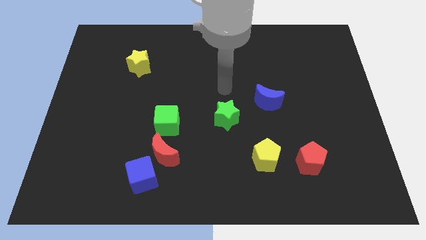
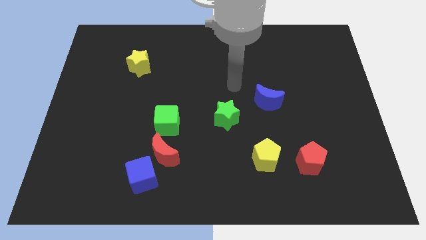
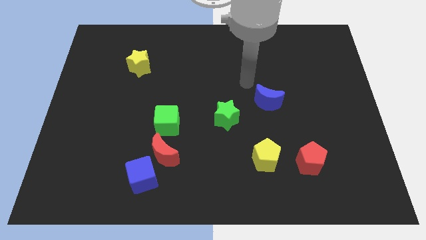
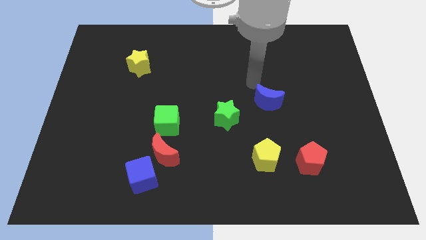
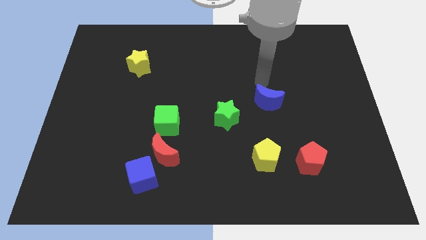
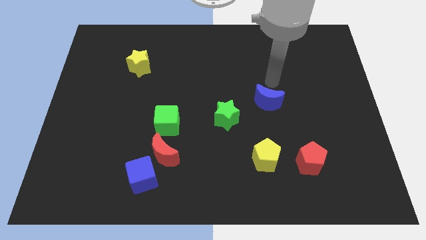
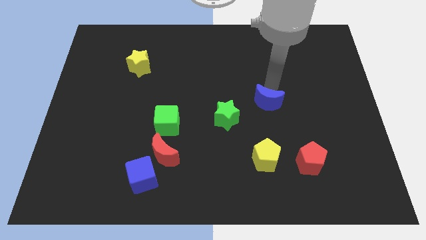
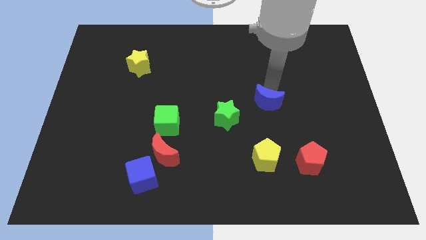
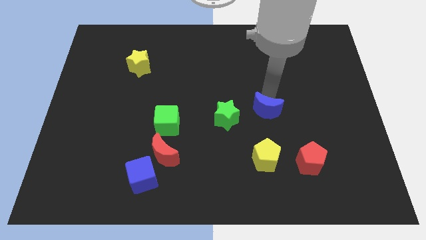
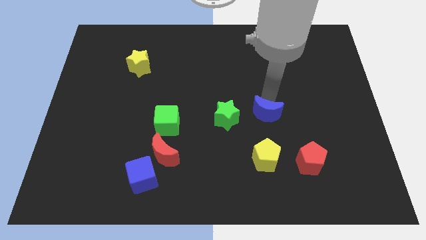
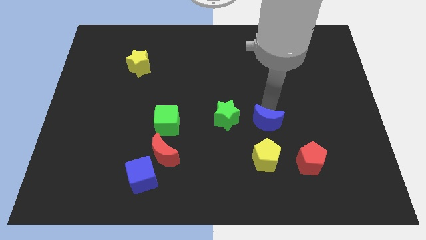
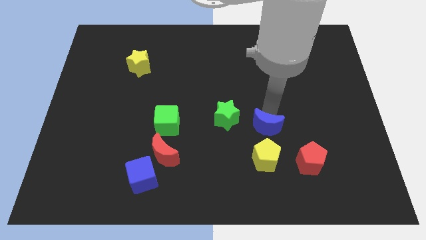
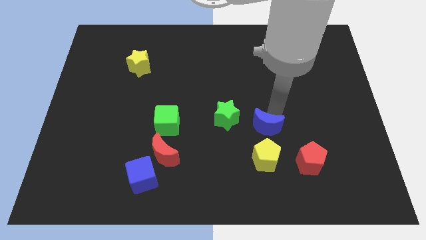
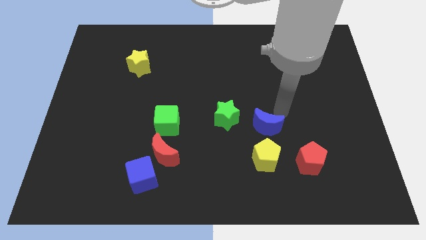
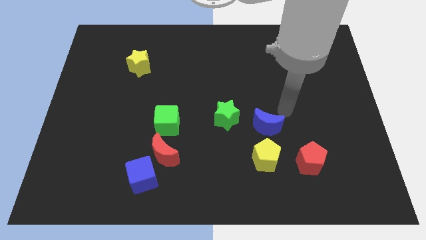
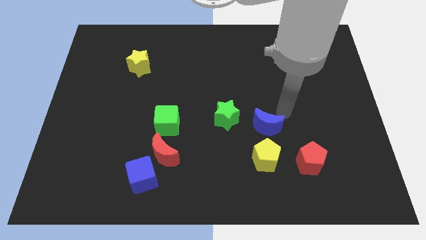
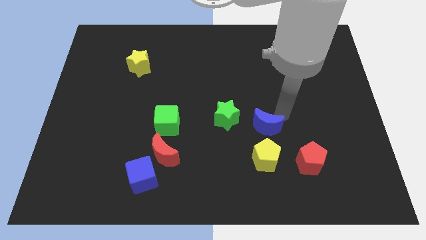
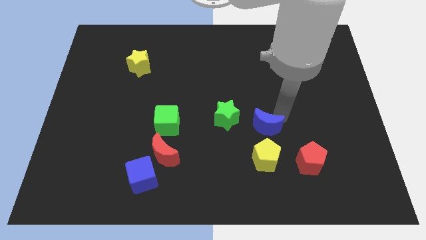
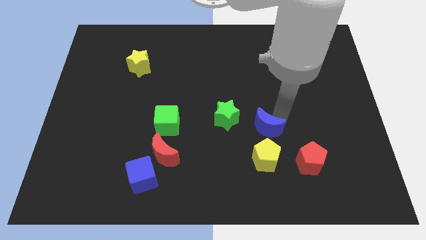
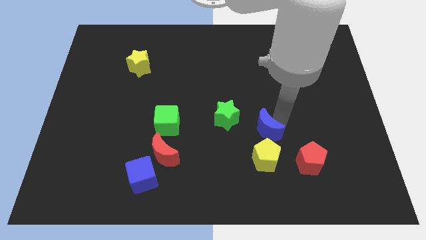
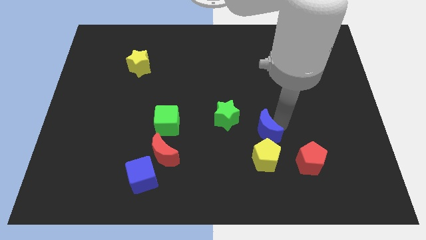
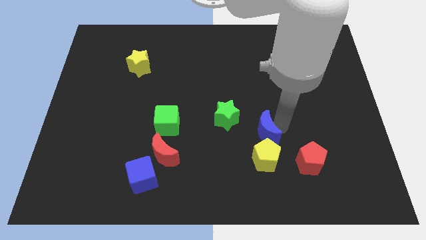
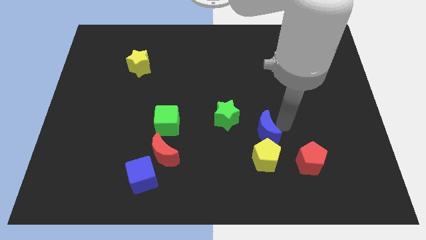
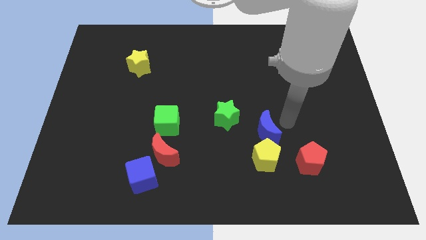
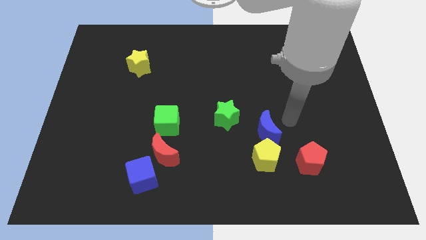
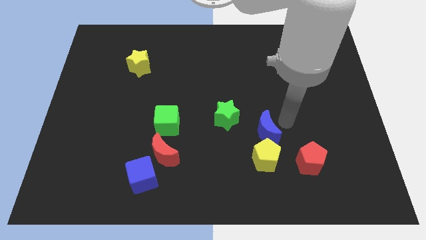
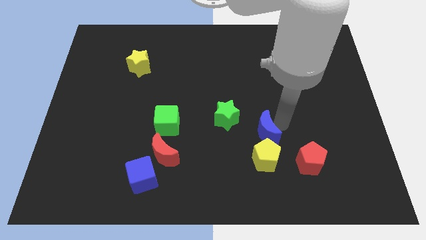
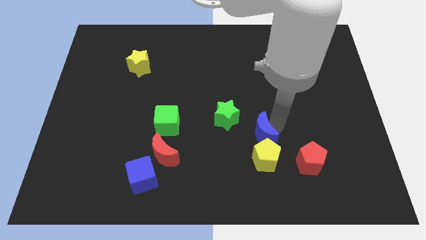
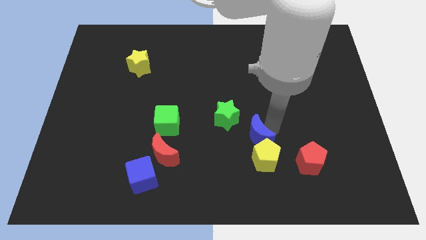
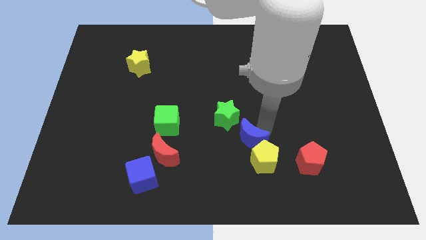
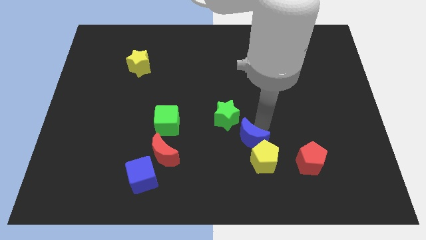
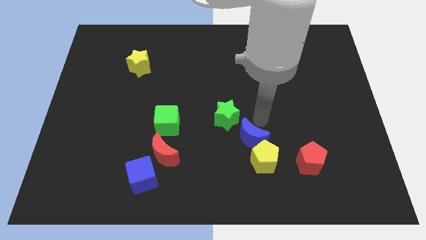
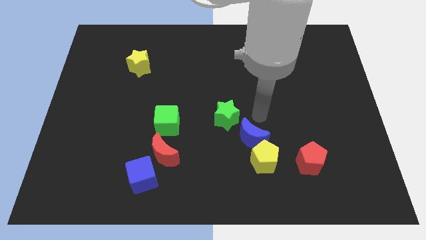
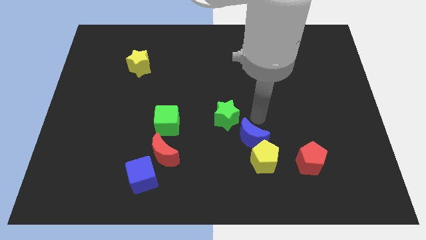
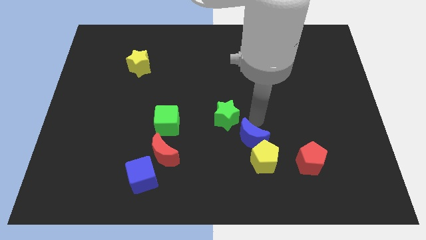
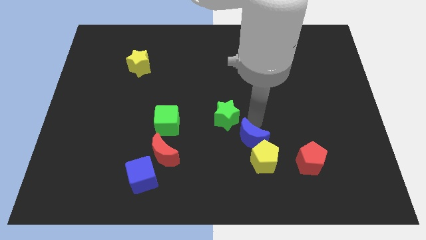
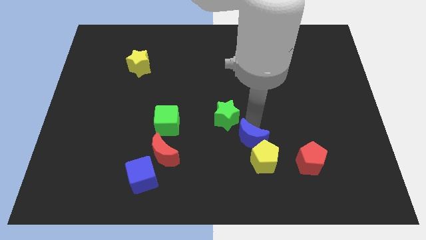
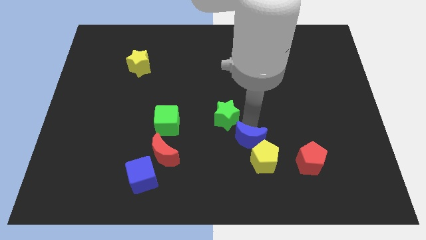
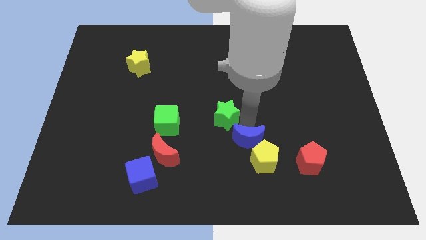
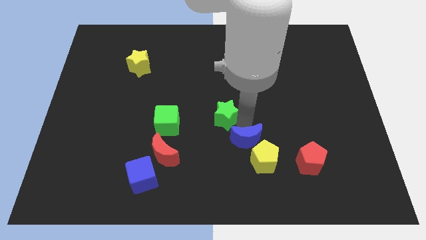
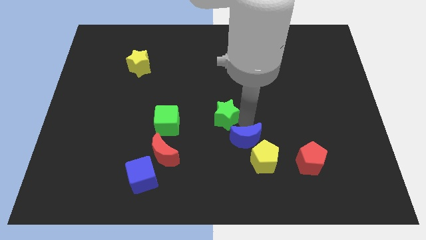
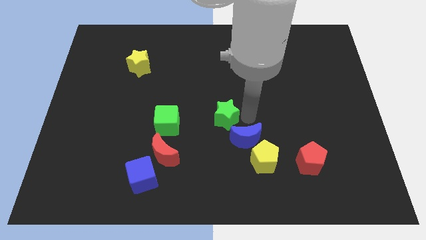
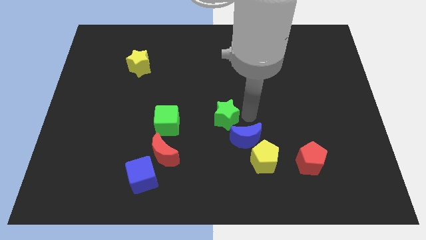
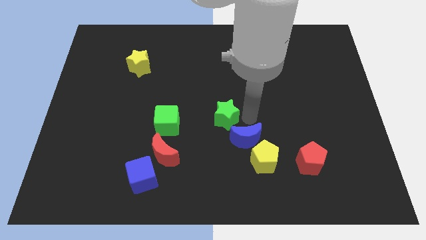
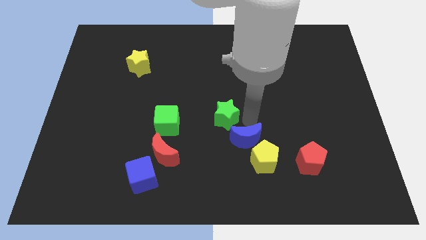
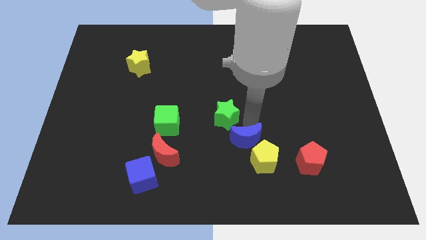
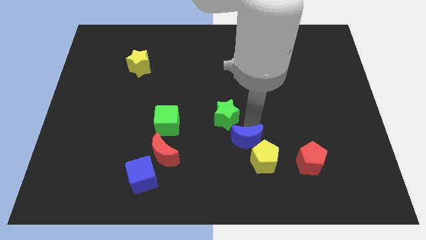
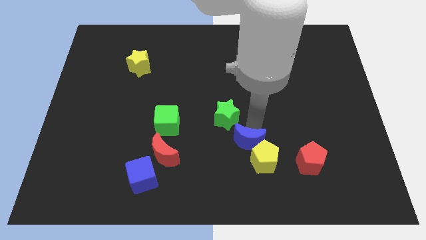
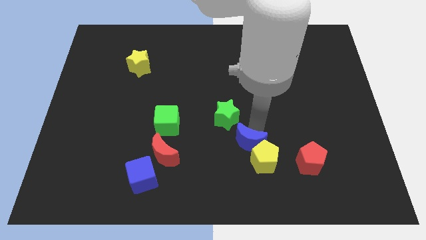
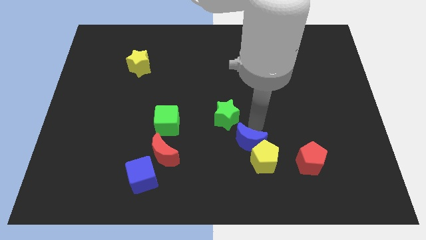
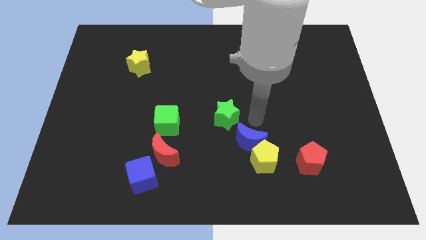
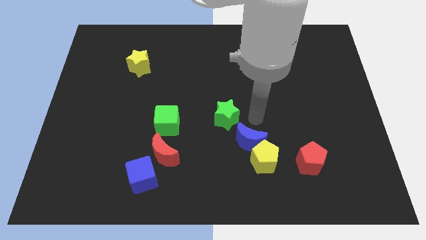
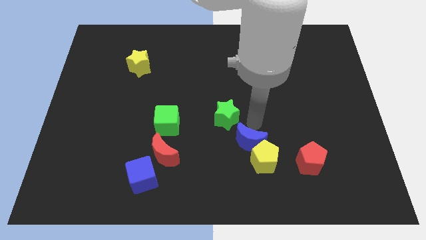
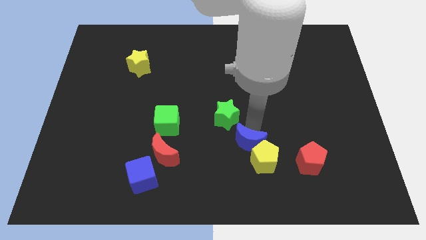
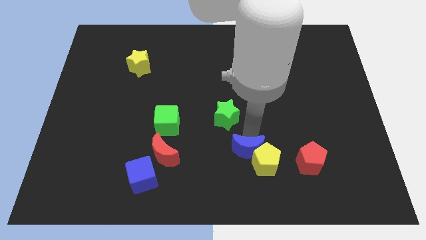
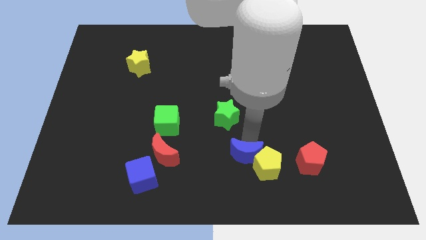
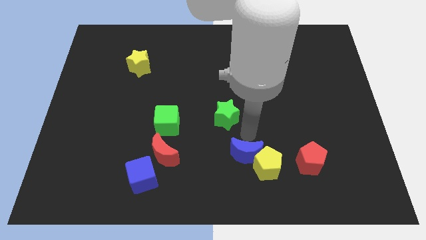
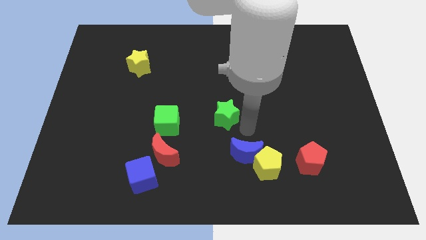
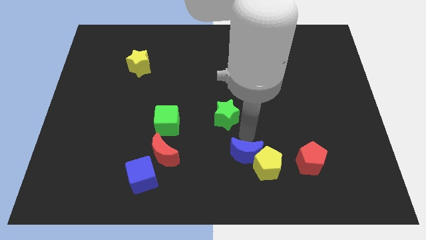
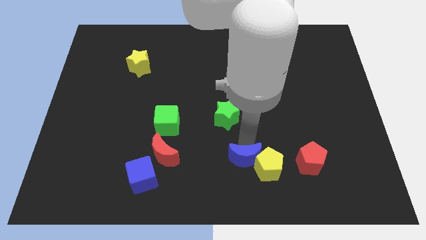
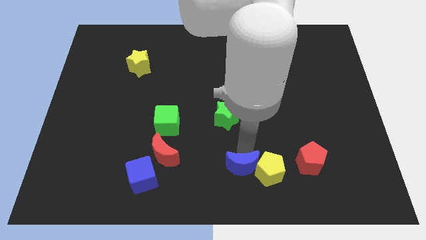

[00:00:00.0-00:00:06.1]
push the blue moon to the bottom left of the yellow pentagon

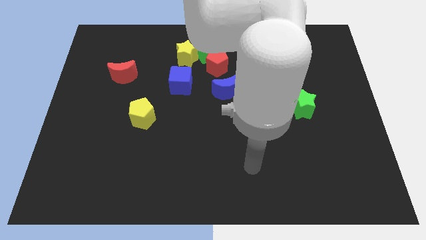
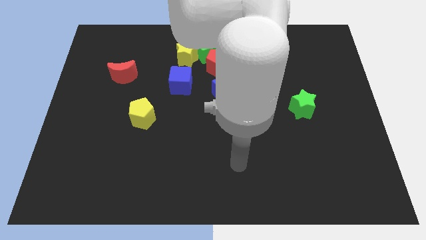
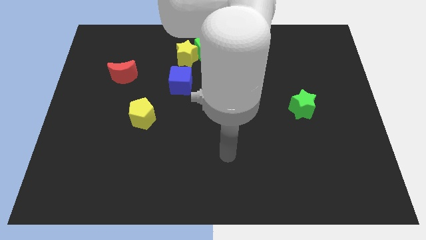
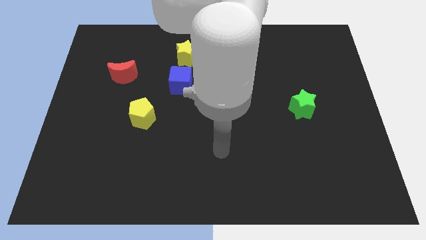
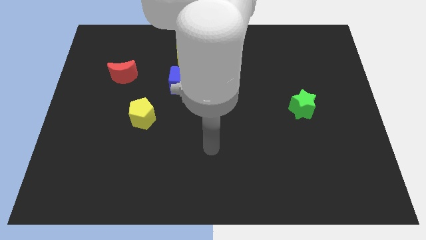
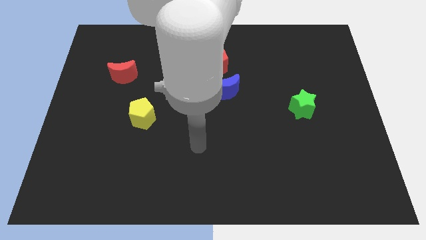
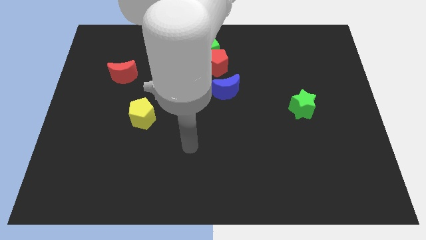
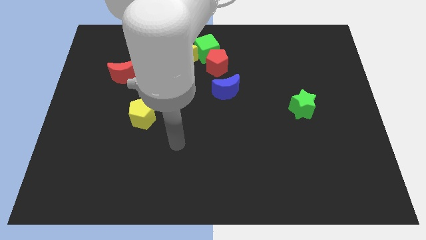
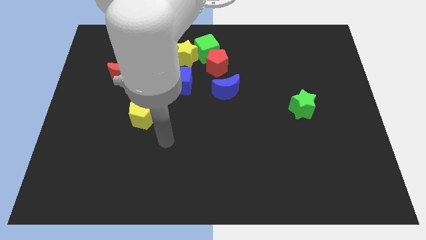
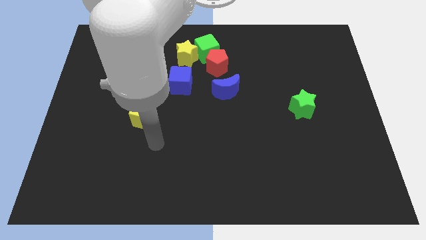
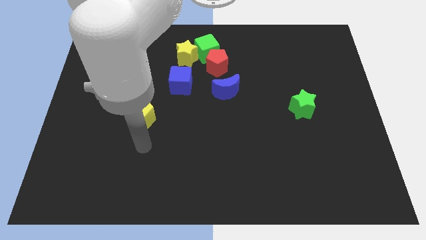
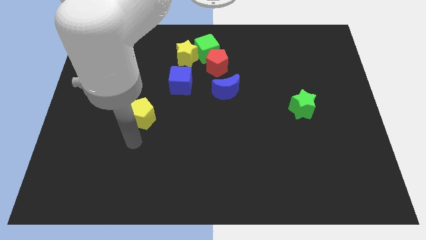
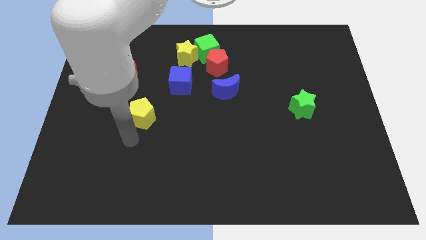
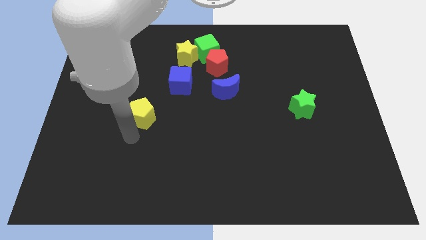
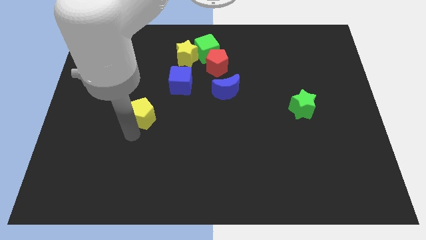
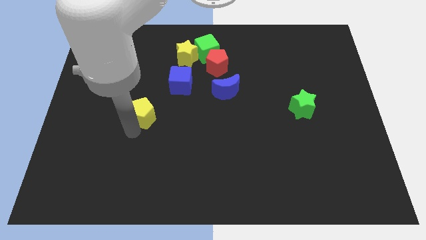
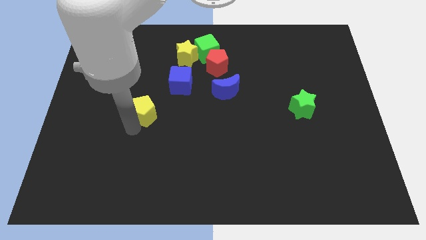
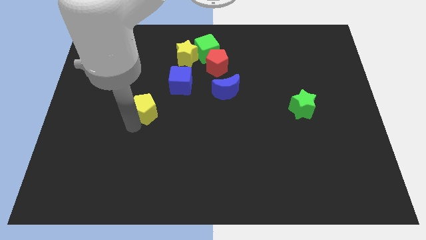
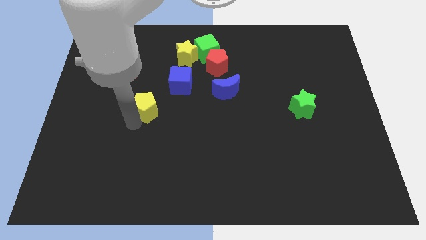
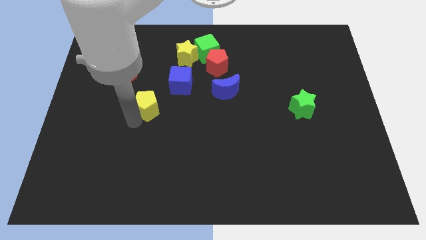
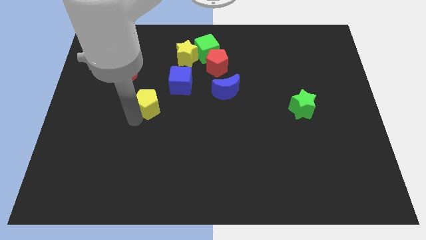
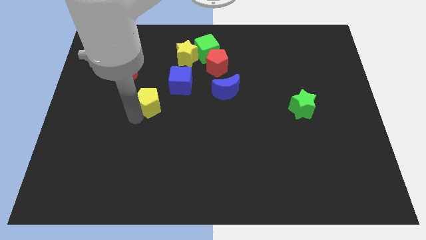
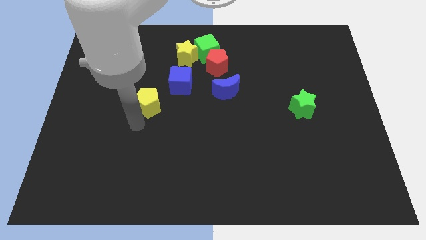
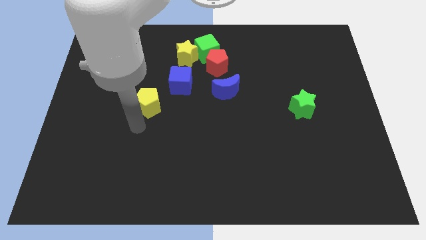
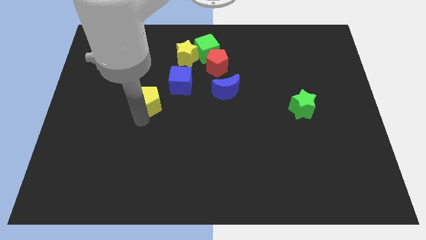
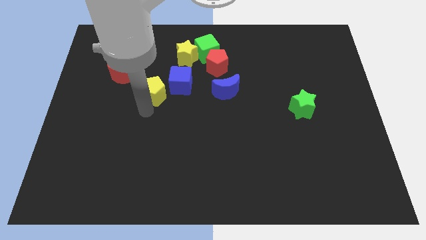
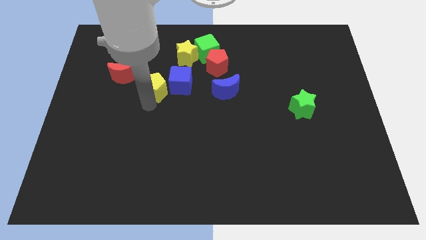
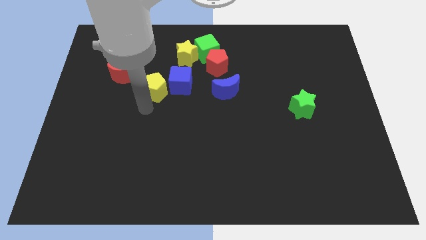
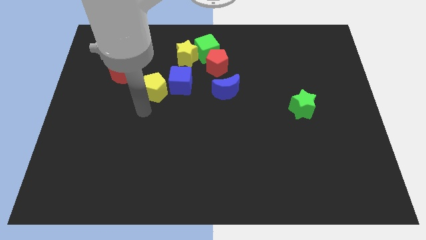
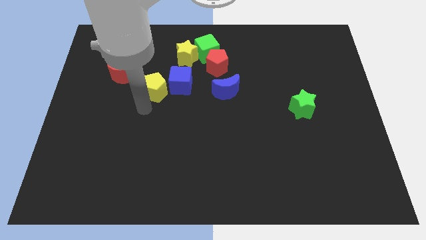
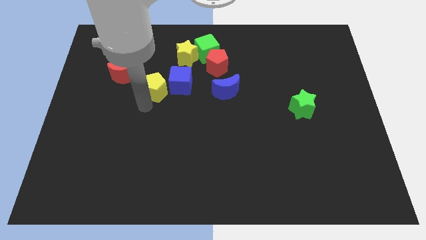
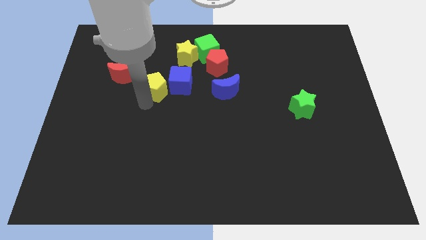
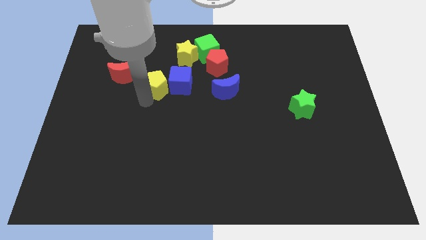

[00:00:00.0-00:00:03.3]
move the yellow pentagon to the bottom left of the yellow star
